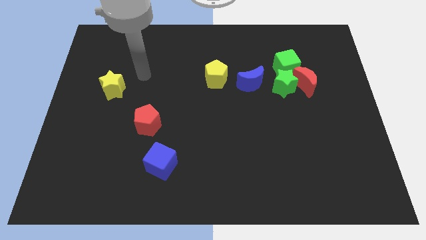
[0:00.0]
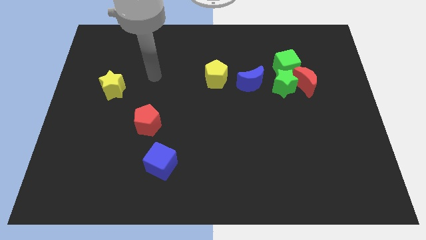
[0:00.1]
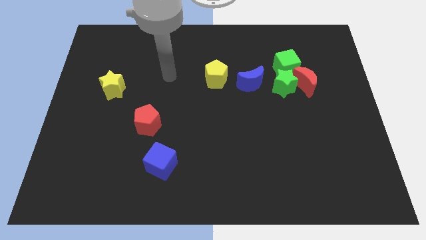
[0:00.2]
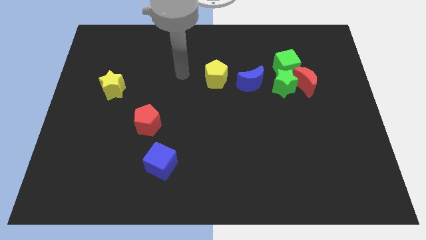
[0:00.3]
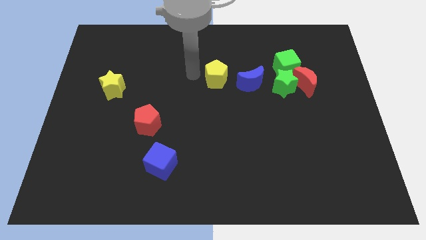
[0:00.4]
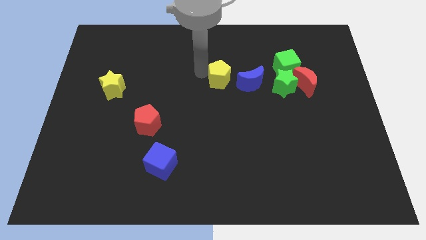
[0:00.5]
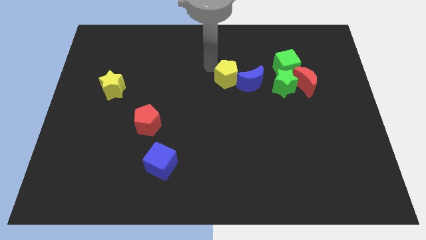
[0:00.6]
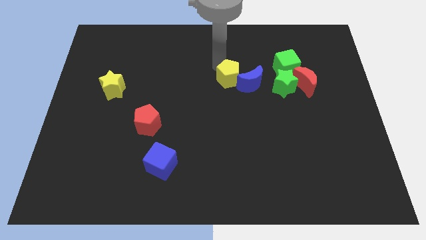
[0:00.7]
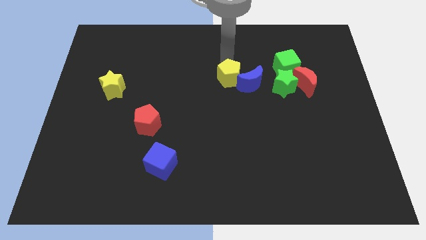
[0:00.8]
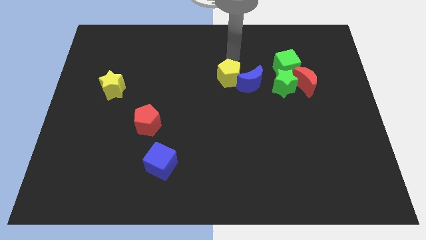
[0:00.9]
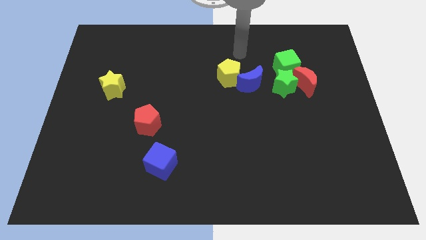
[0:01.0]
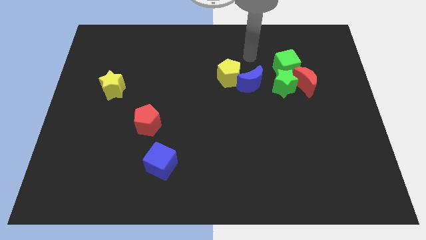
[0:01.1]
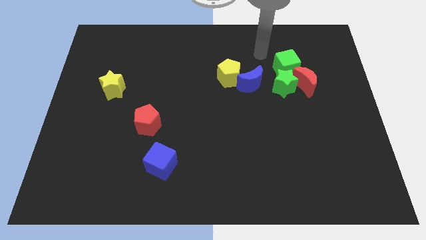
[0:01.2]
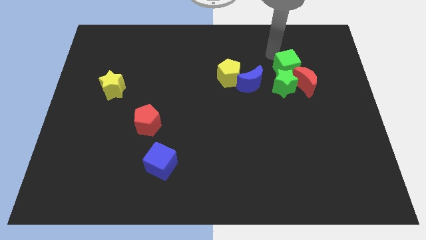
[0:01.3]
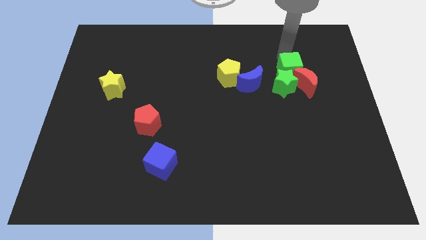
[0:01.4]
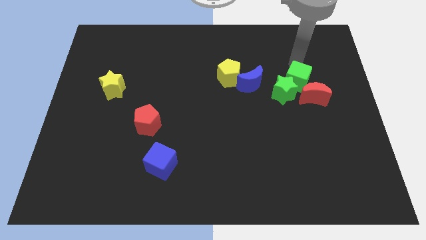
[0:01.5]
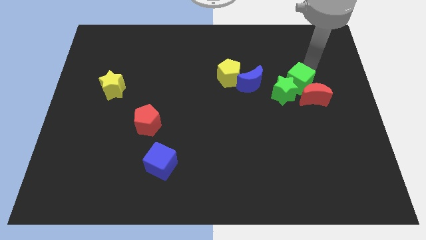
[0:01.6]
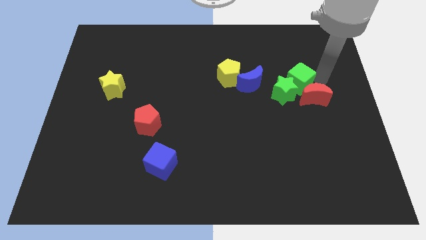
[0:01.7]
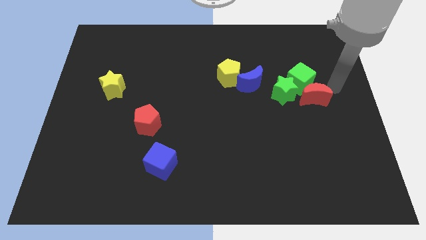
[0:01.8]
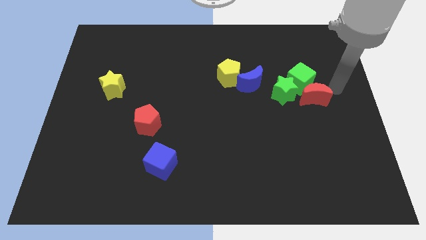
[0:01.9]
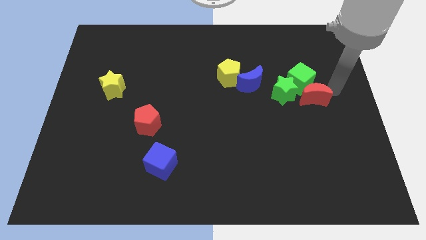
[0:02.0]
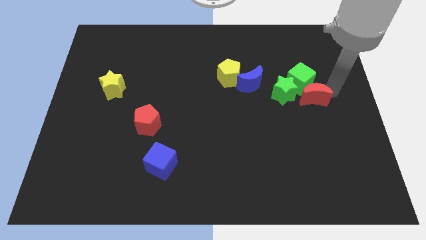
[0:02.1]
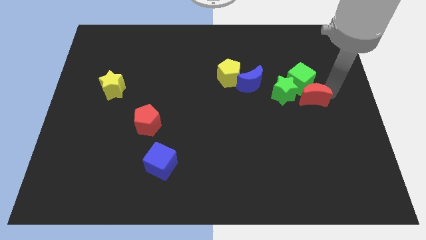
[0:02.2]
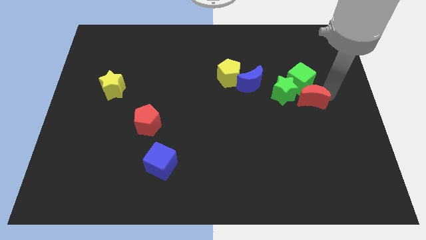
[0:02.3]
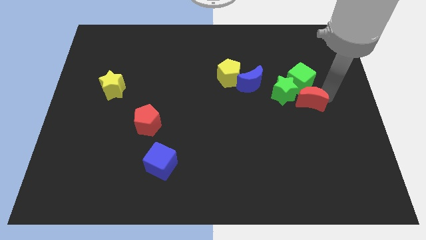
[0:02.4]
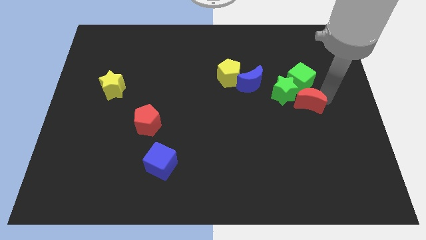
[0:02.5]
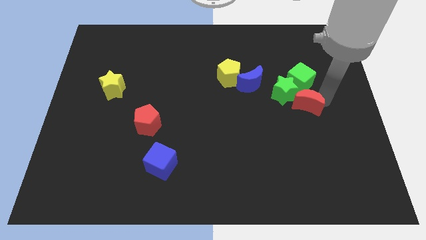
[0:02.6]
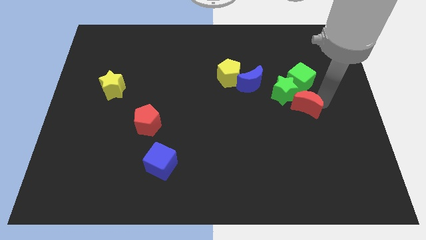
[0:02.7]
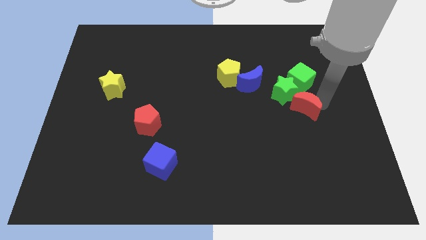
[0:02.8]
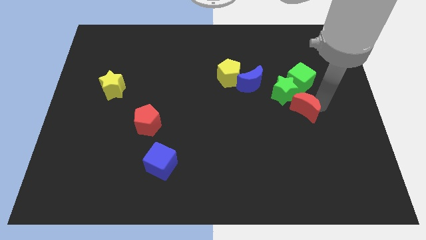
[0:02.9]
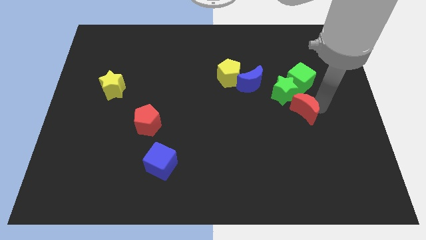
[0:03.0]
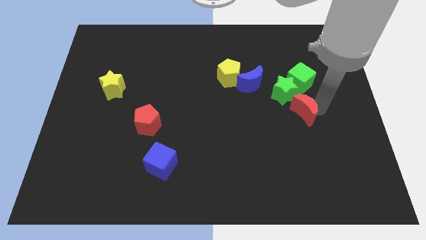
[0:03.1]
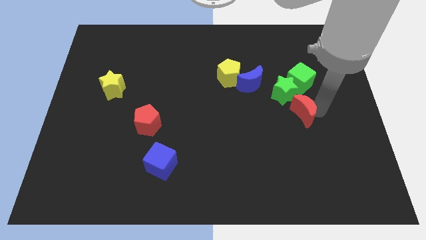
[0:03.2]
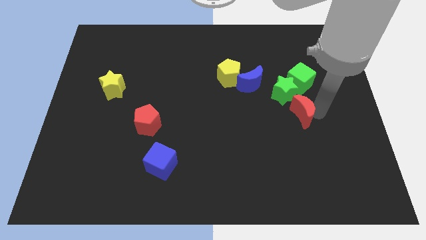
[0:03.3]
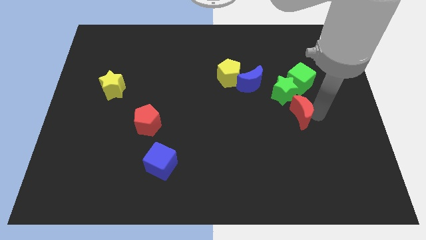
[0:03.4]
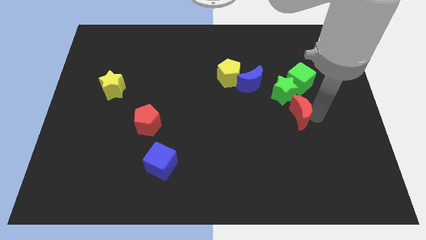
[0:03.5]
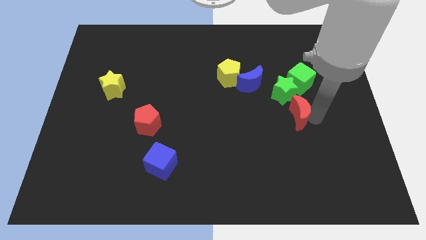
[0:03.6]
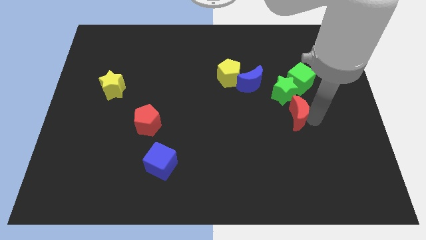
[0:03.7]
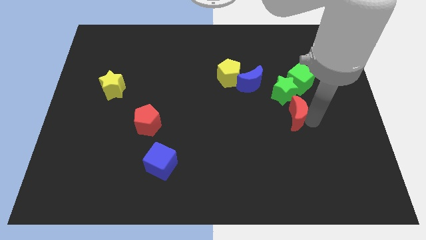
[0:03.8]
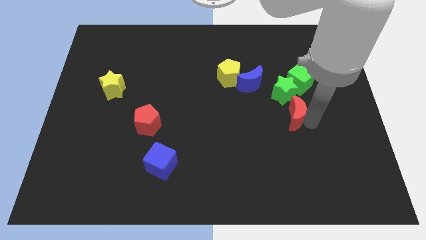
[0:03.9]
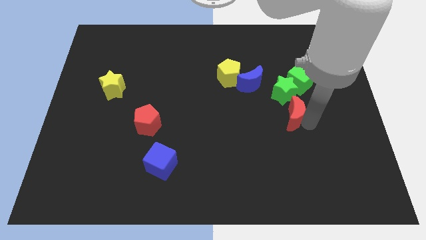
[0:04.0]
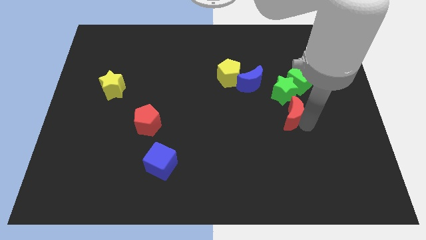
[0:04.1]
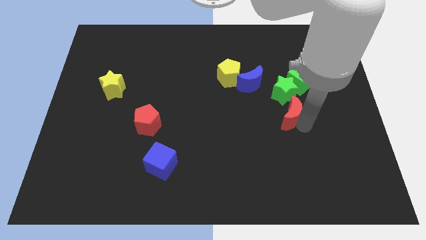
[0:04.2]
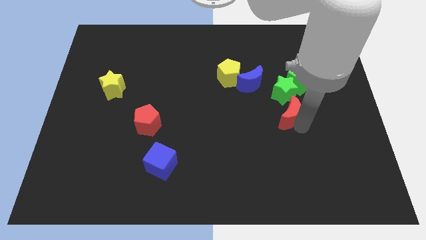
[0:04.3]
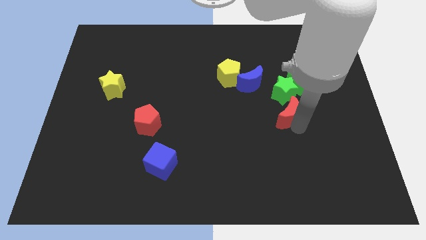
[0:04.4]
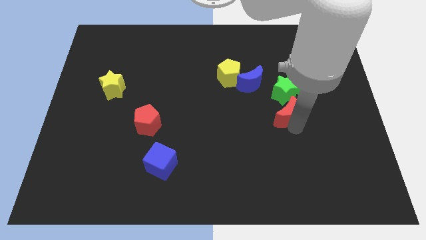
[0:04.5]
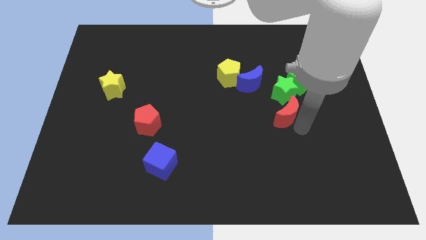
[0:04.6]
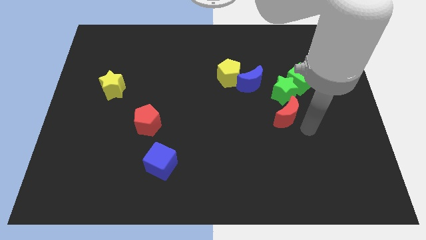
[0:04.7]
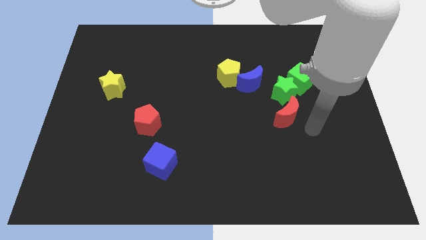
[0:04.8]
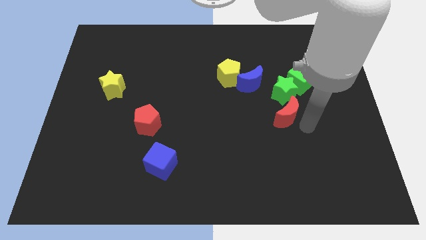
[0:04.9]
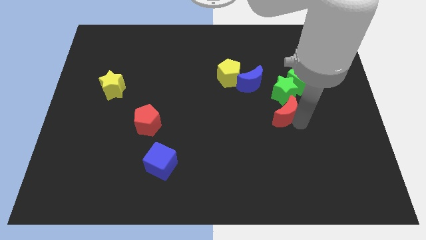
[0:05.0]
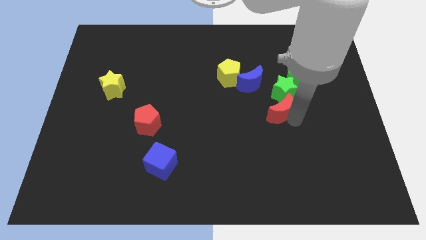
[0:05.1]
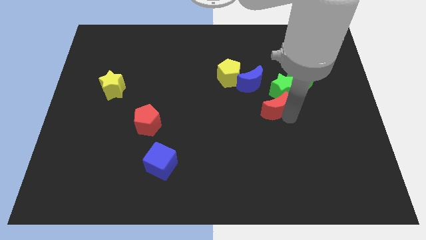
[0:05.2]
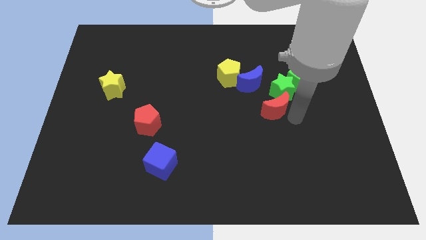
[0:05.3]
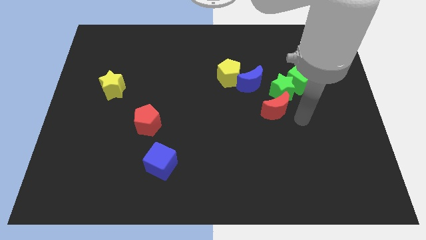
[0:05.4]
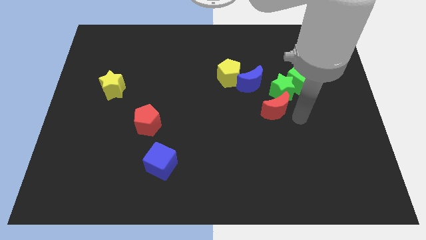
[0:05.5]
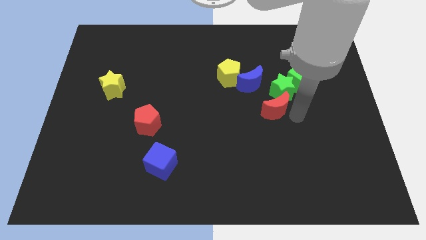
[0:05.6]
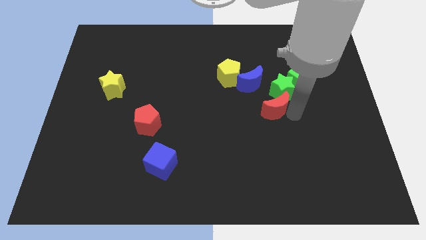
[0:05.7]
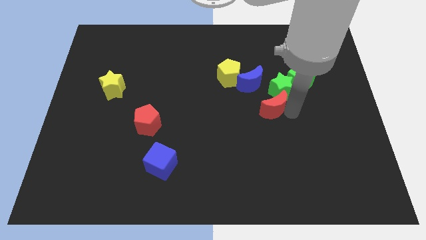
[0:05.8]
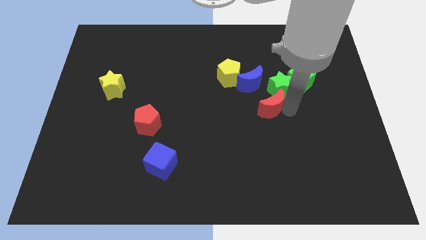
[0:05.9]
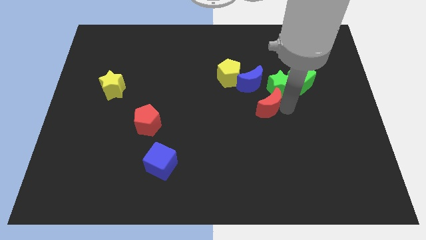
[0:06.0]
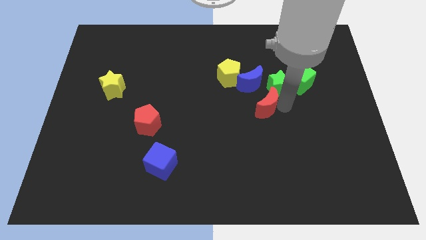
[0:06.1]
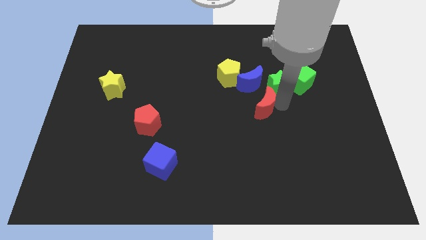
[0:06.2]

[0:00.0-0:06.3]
put the red moon to the center of the board
